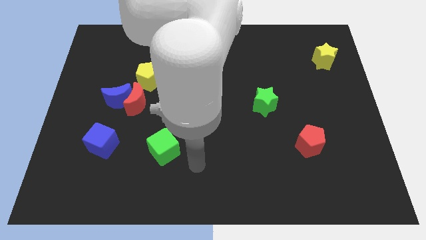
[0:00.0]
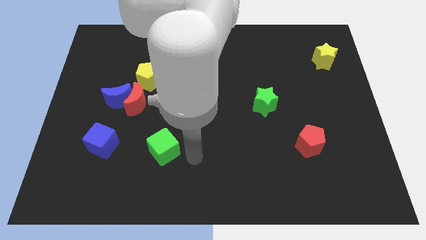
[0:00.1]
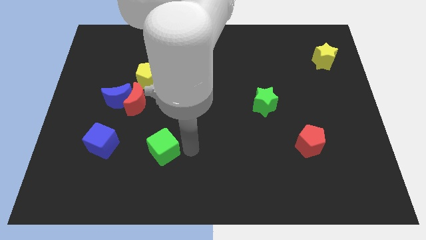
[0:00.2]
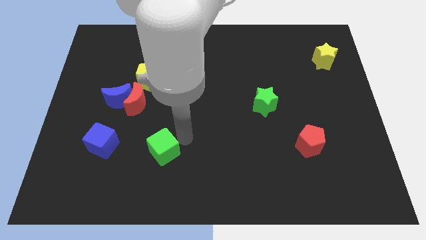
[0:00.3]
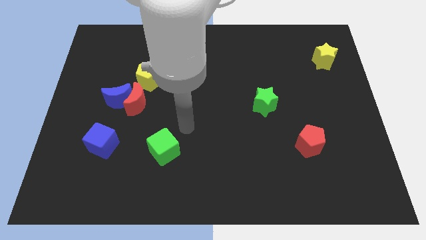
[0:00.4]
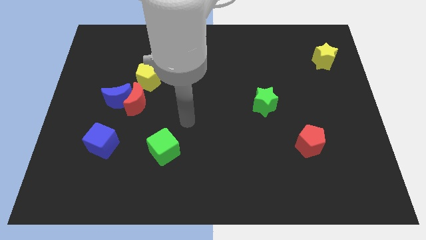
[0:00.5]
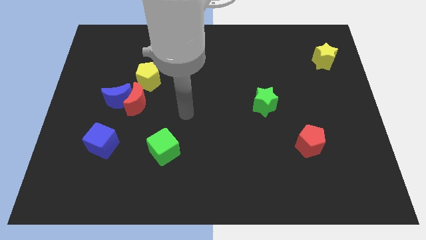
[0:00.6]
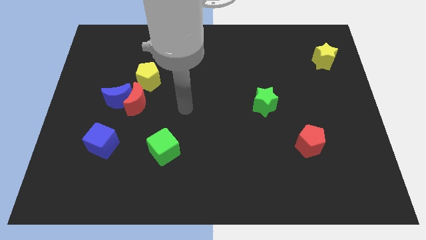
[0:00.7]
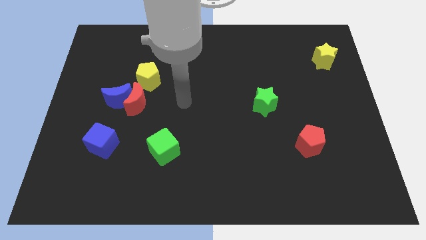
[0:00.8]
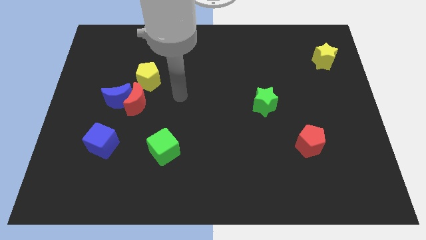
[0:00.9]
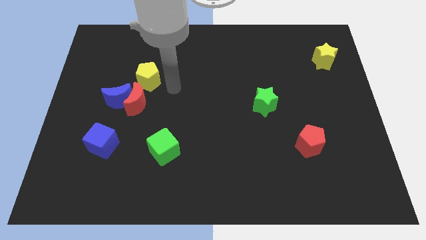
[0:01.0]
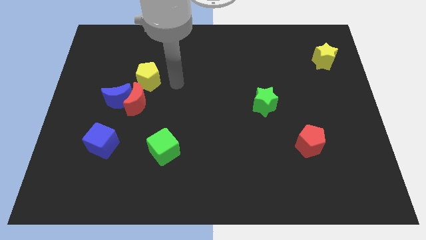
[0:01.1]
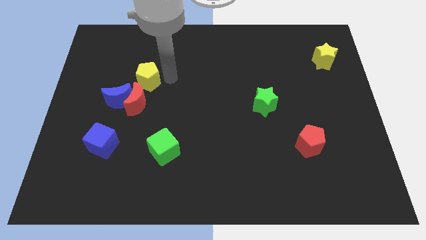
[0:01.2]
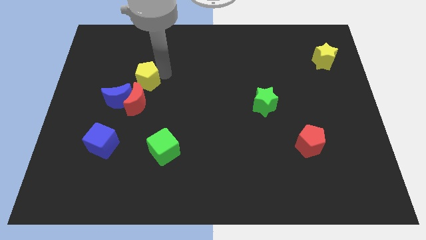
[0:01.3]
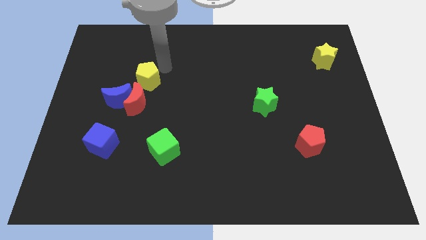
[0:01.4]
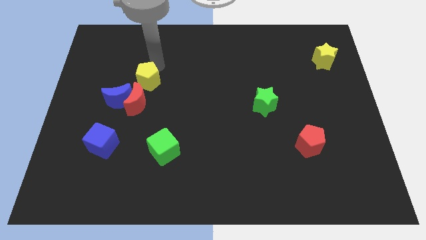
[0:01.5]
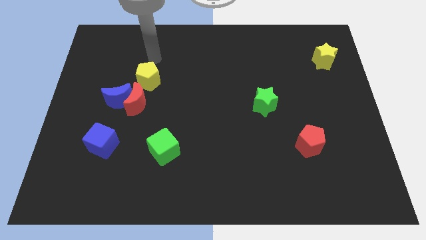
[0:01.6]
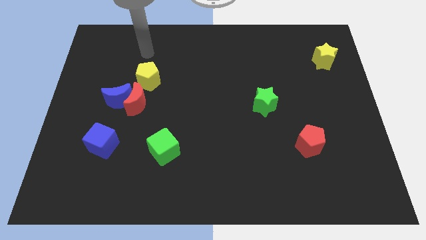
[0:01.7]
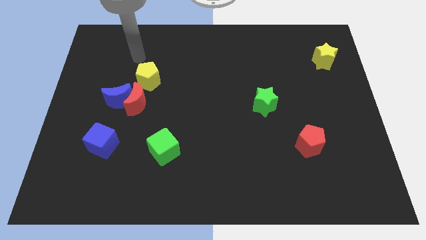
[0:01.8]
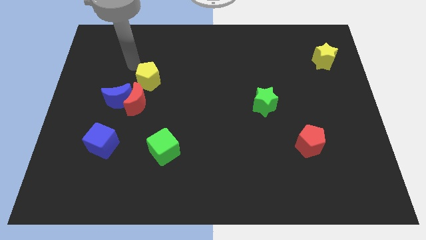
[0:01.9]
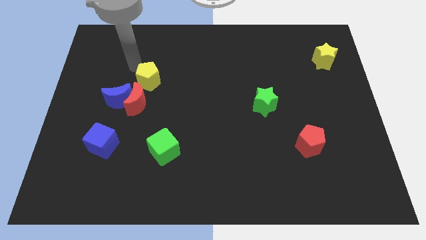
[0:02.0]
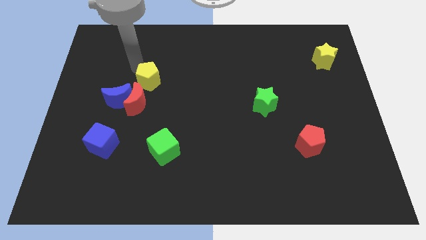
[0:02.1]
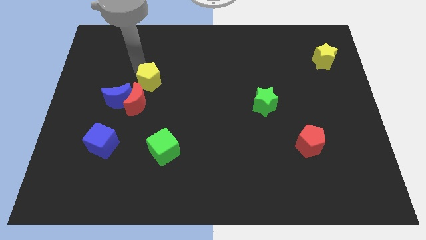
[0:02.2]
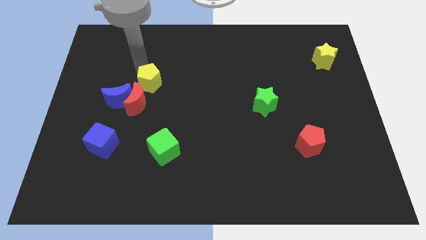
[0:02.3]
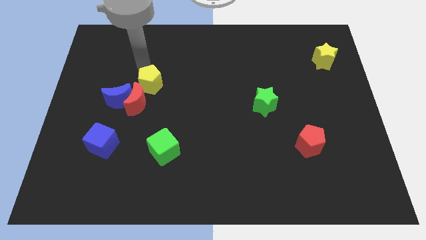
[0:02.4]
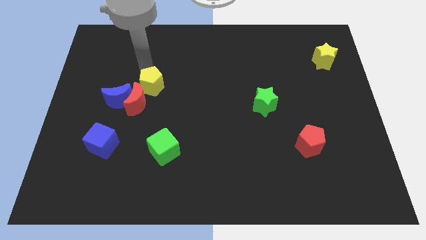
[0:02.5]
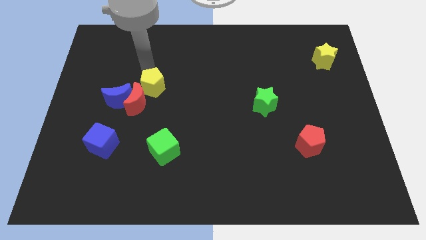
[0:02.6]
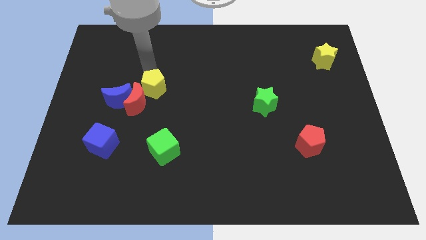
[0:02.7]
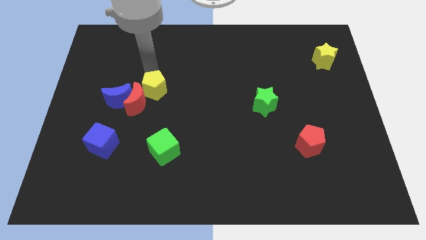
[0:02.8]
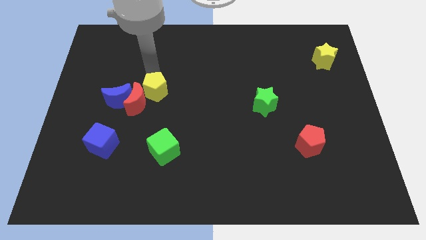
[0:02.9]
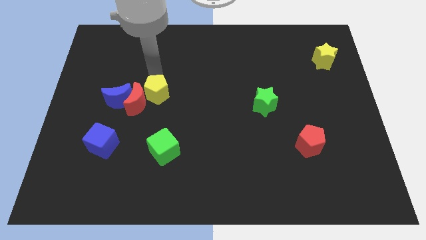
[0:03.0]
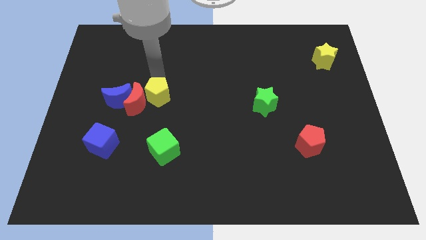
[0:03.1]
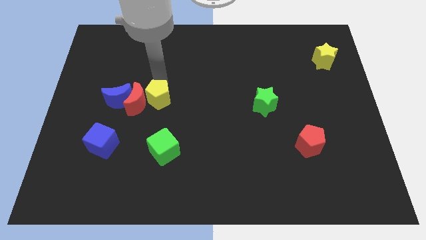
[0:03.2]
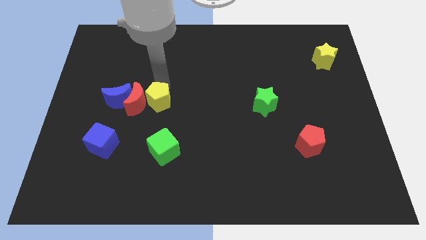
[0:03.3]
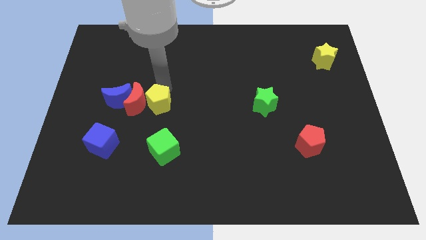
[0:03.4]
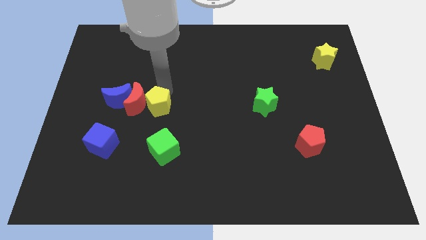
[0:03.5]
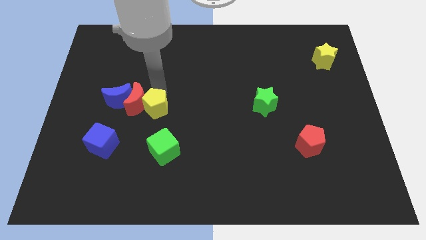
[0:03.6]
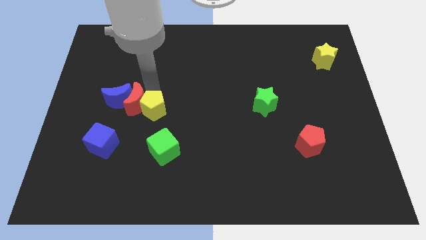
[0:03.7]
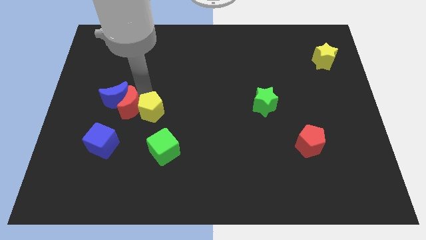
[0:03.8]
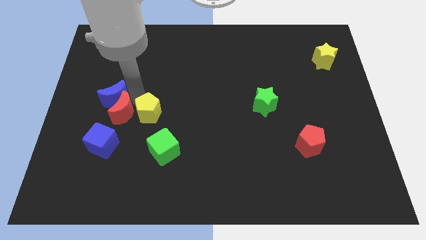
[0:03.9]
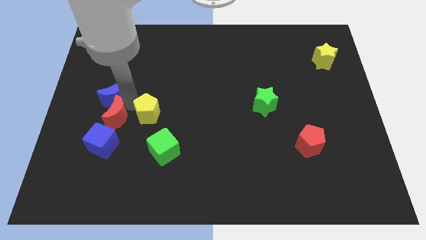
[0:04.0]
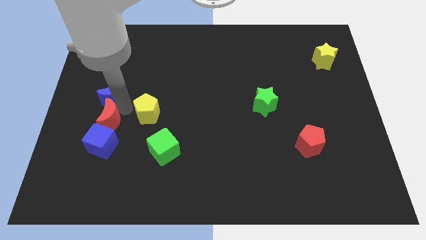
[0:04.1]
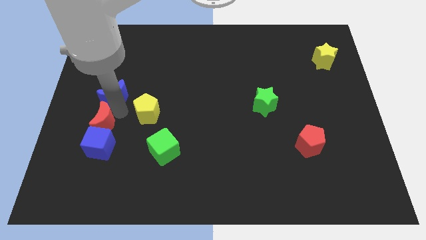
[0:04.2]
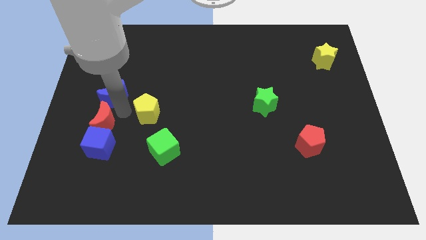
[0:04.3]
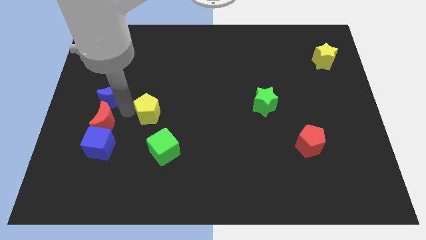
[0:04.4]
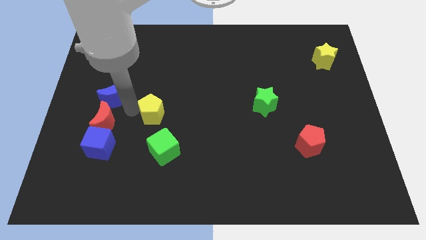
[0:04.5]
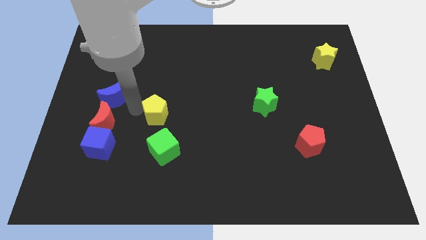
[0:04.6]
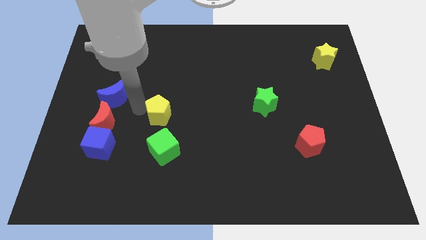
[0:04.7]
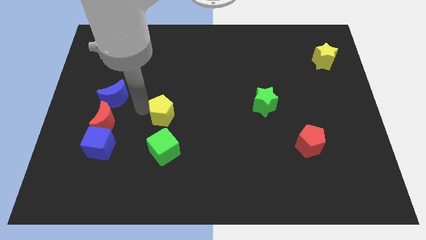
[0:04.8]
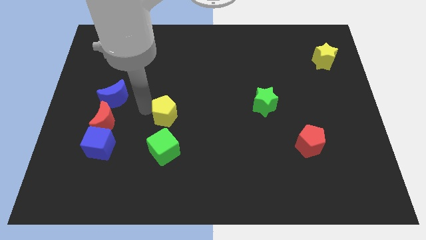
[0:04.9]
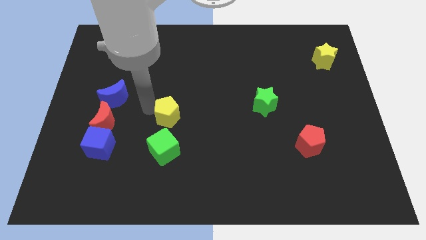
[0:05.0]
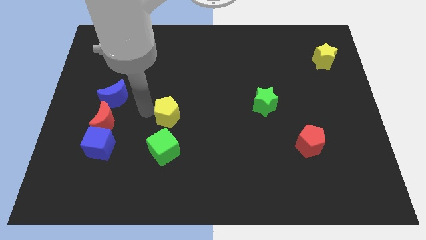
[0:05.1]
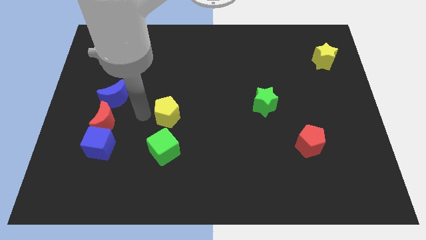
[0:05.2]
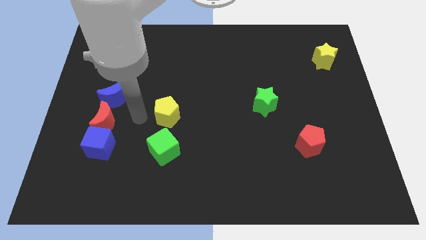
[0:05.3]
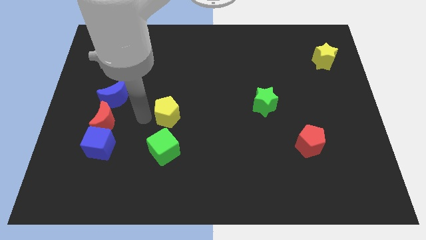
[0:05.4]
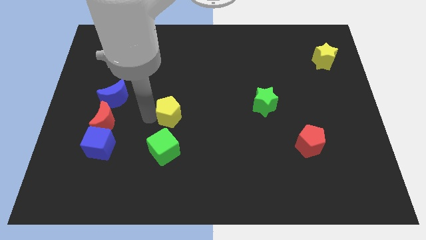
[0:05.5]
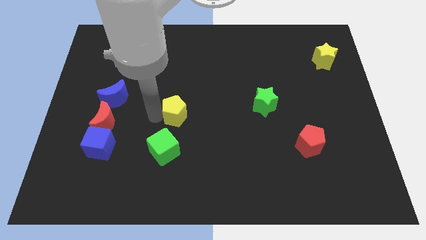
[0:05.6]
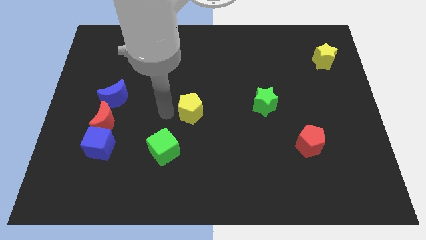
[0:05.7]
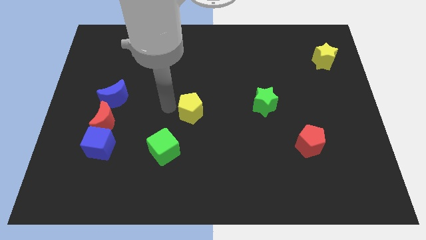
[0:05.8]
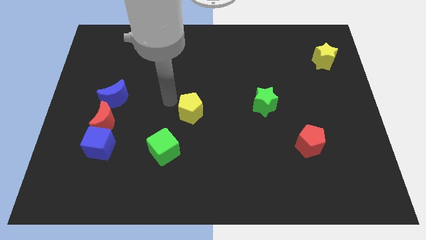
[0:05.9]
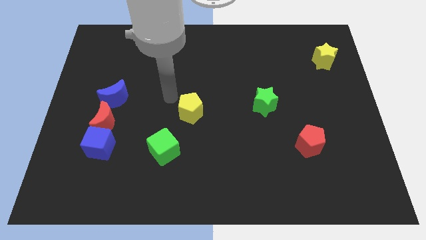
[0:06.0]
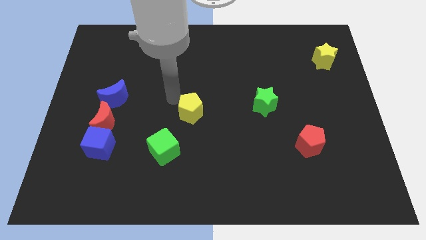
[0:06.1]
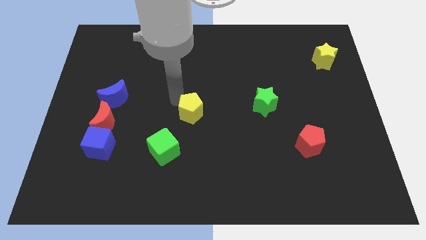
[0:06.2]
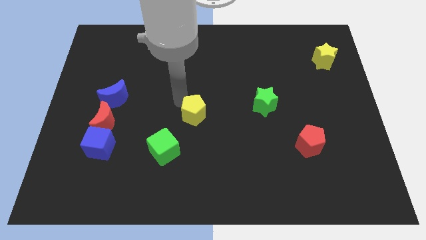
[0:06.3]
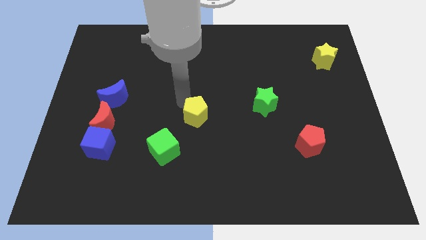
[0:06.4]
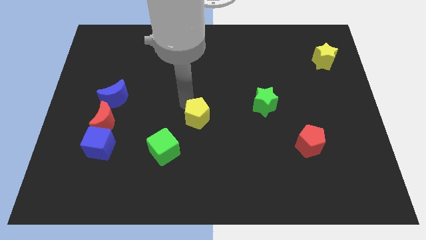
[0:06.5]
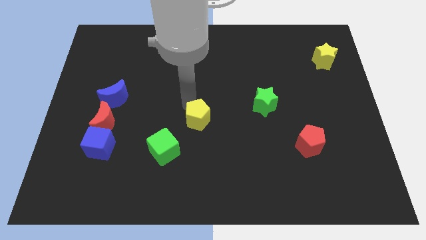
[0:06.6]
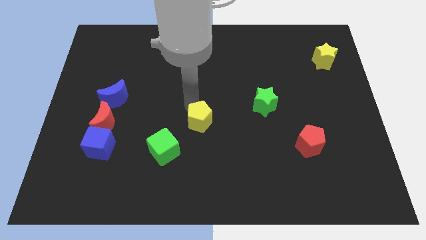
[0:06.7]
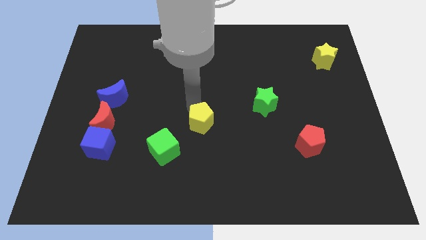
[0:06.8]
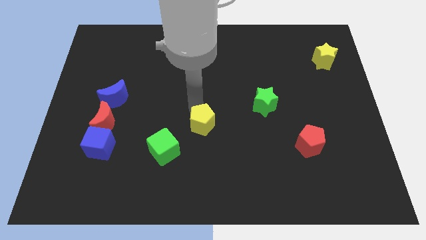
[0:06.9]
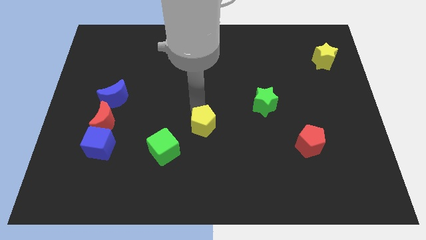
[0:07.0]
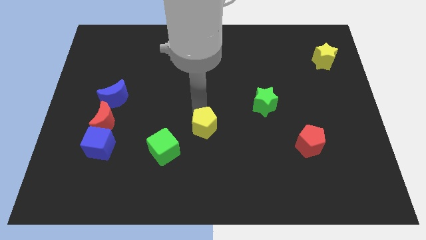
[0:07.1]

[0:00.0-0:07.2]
slide the yellow pentagon downwards and then to the right

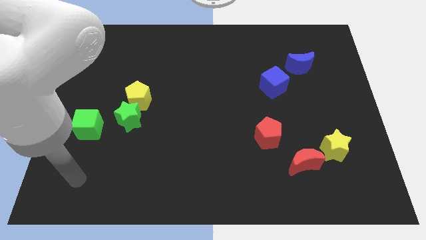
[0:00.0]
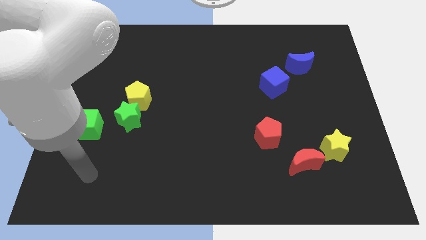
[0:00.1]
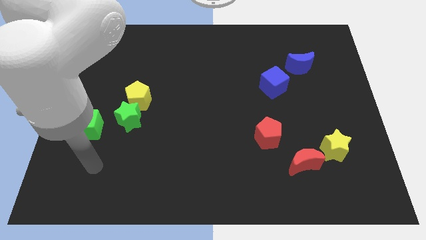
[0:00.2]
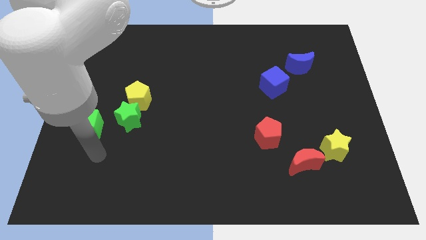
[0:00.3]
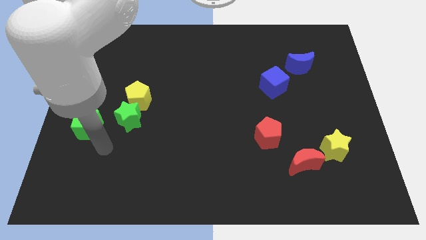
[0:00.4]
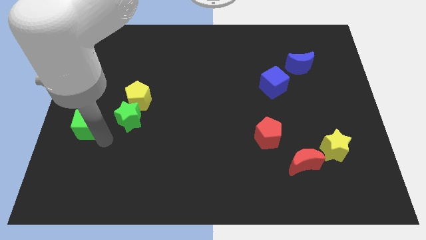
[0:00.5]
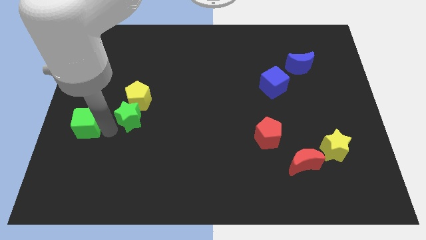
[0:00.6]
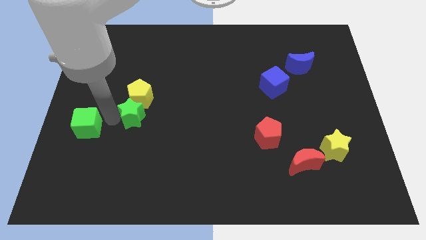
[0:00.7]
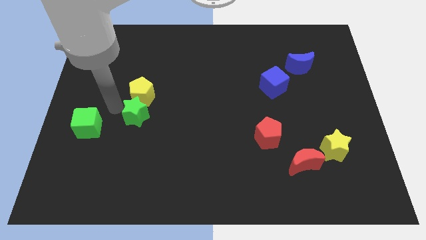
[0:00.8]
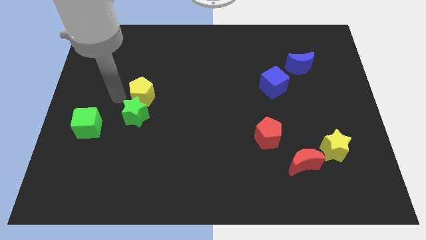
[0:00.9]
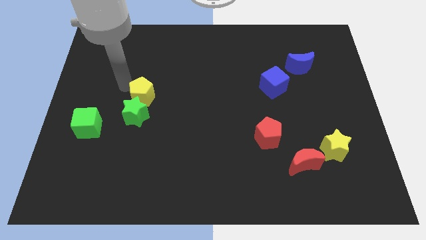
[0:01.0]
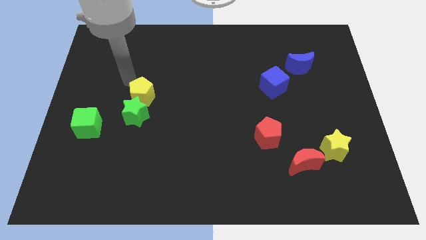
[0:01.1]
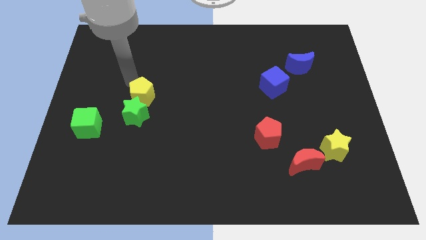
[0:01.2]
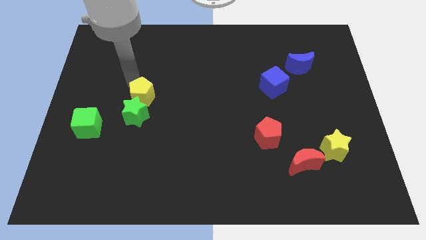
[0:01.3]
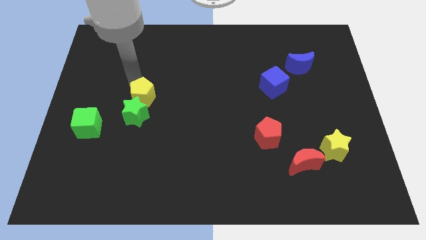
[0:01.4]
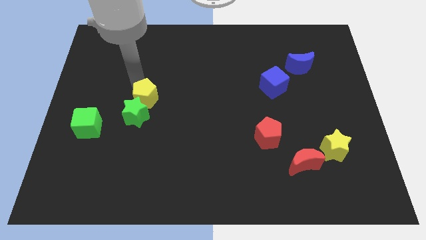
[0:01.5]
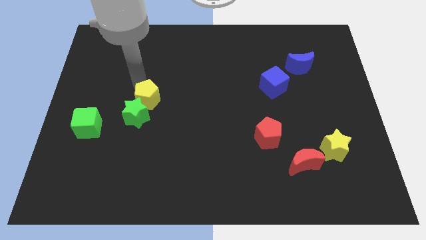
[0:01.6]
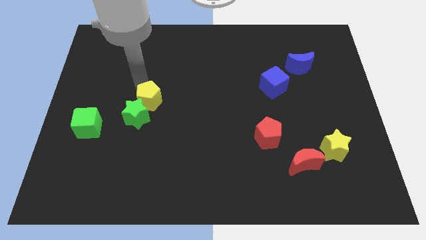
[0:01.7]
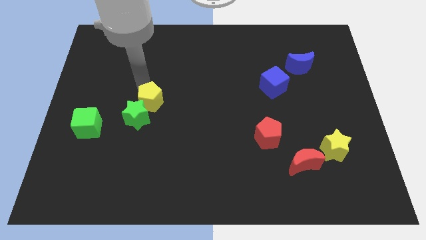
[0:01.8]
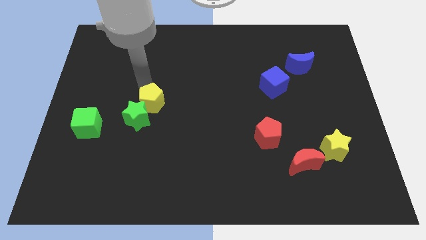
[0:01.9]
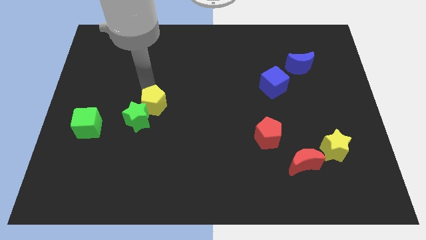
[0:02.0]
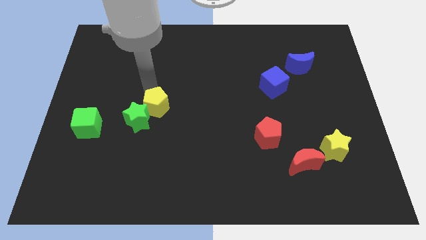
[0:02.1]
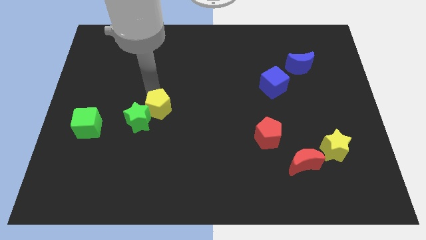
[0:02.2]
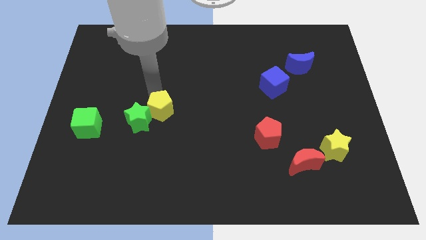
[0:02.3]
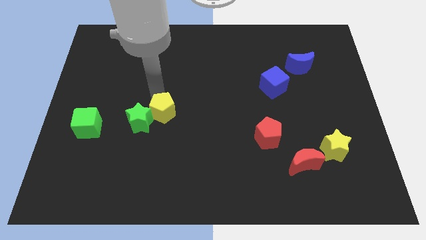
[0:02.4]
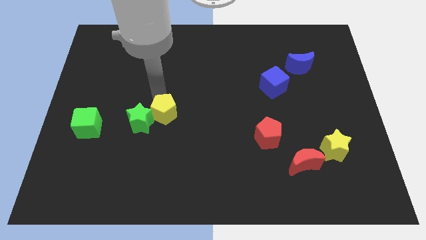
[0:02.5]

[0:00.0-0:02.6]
push the yellow pentagon down and then to the right somewhat
